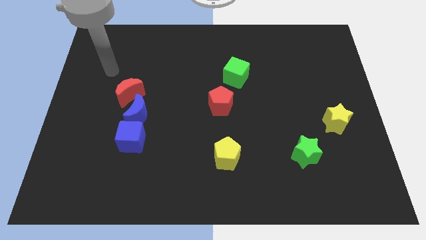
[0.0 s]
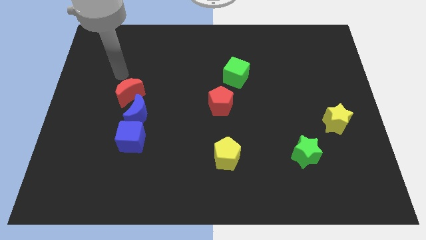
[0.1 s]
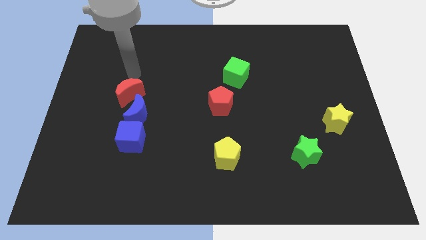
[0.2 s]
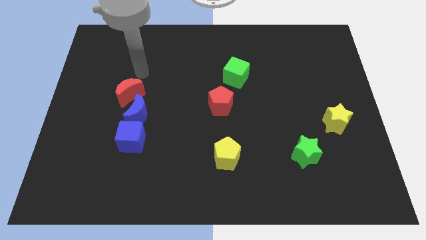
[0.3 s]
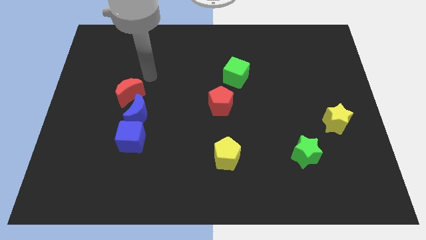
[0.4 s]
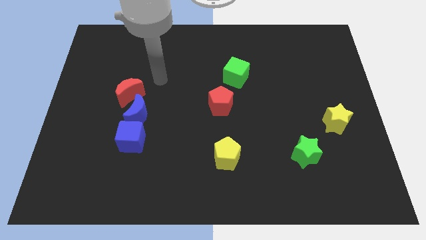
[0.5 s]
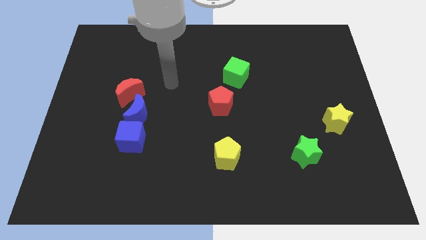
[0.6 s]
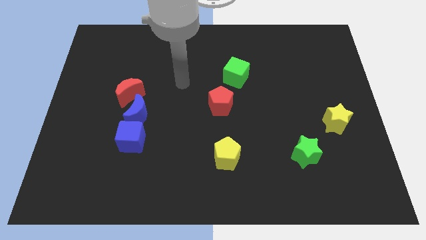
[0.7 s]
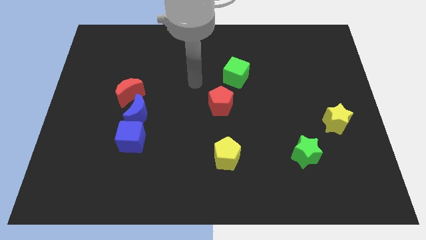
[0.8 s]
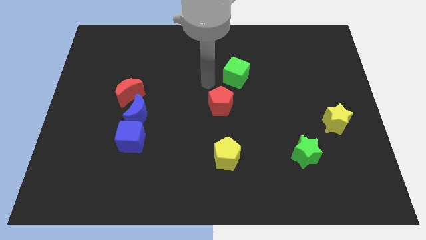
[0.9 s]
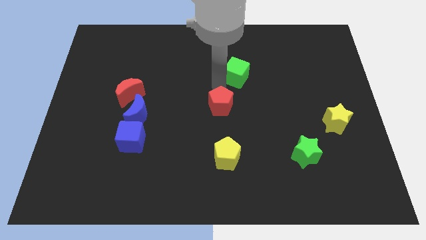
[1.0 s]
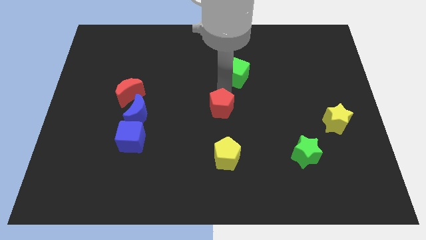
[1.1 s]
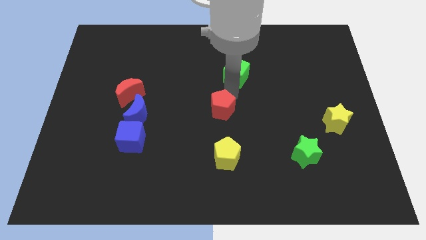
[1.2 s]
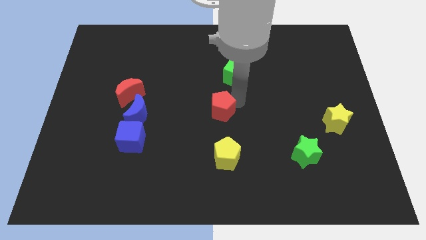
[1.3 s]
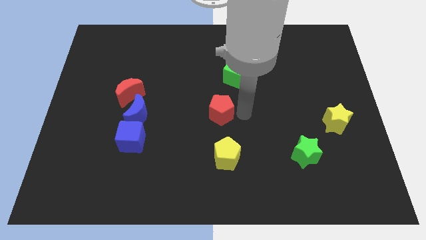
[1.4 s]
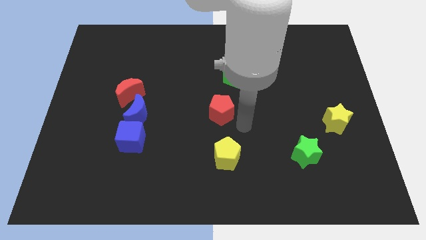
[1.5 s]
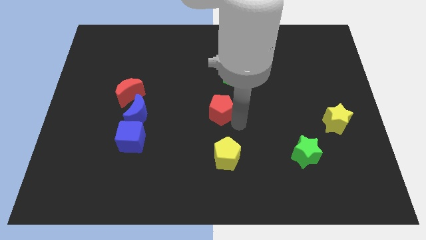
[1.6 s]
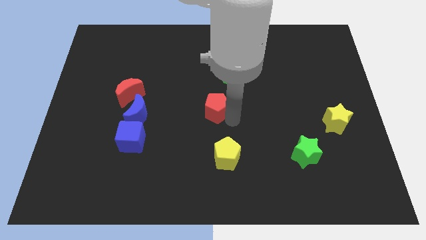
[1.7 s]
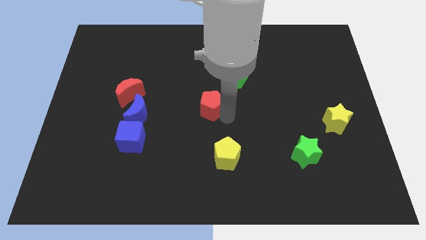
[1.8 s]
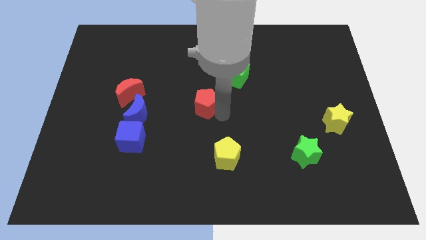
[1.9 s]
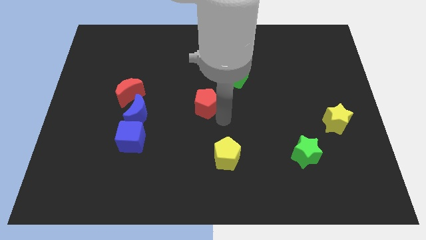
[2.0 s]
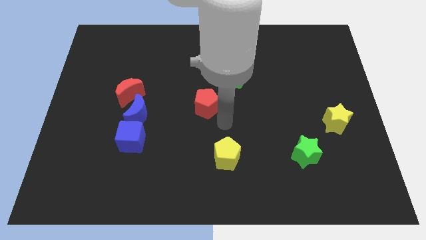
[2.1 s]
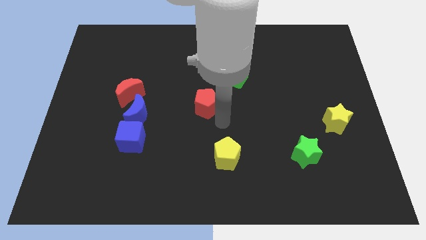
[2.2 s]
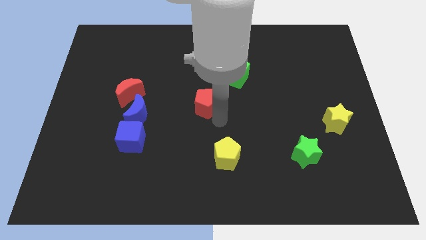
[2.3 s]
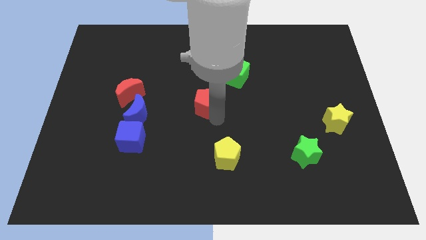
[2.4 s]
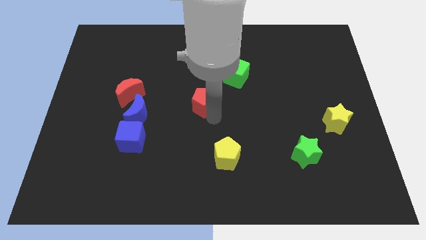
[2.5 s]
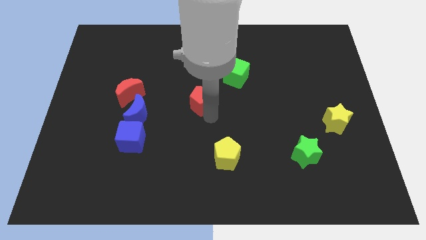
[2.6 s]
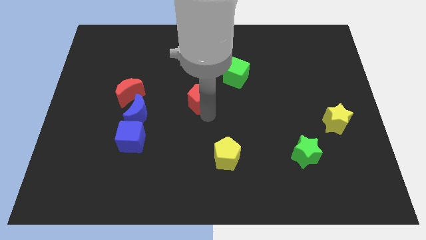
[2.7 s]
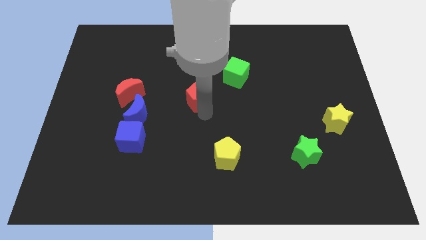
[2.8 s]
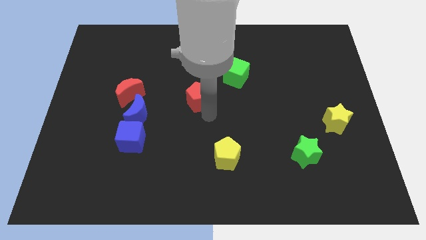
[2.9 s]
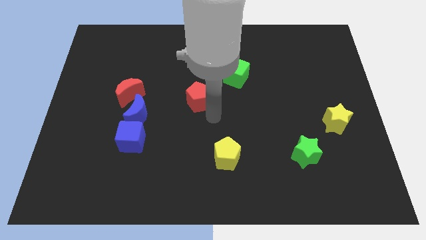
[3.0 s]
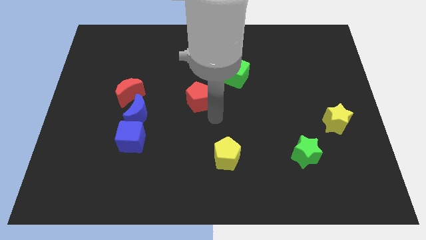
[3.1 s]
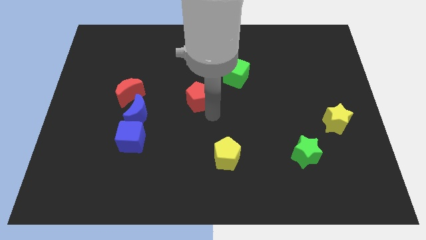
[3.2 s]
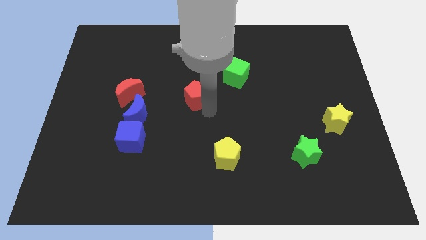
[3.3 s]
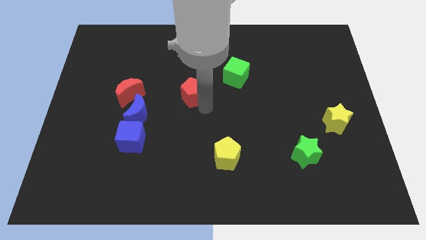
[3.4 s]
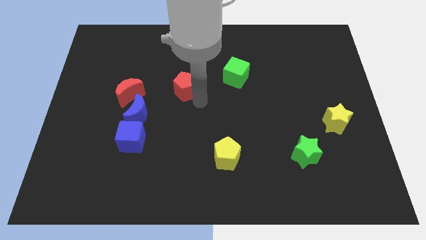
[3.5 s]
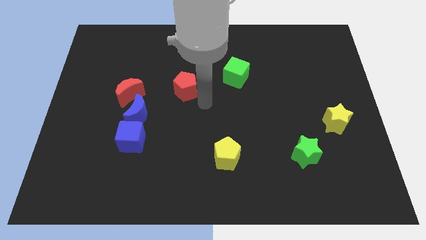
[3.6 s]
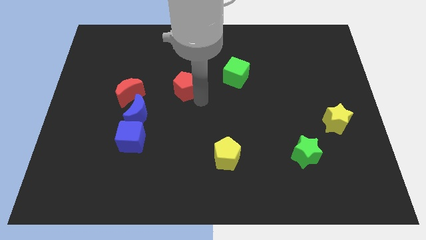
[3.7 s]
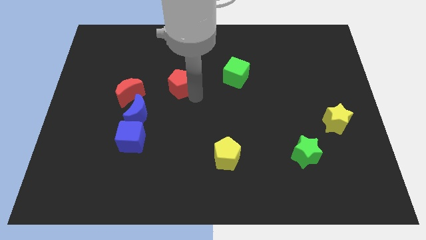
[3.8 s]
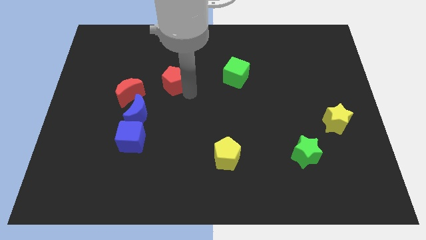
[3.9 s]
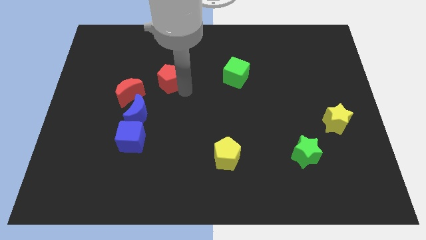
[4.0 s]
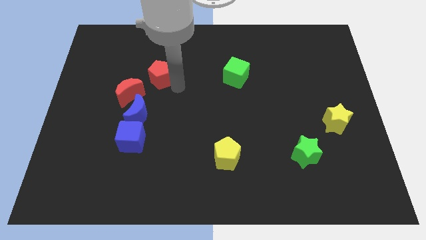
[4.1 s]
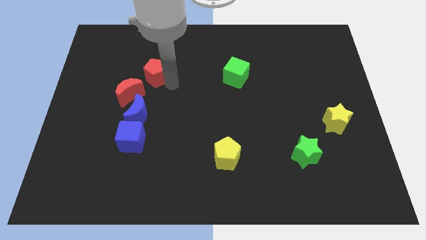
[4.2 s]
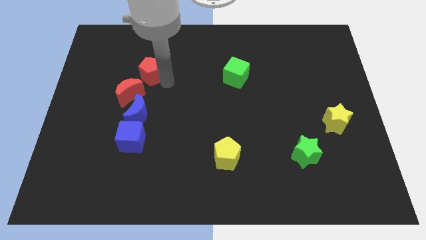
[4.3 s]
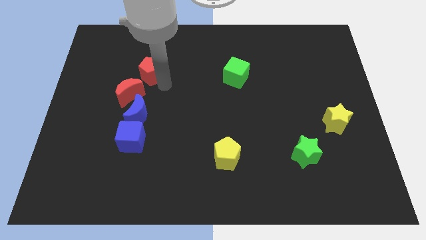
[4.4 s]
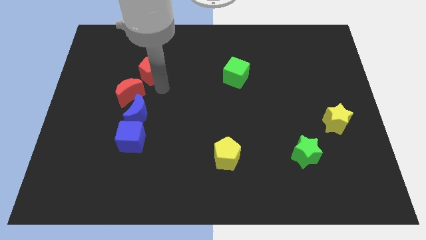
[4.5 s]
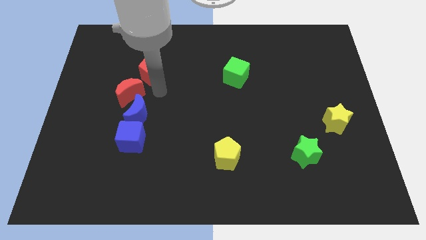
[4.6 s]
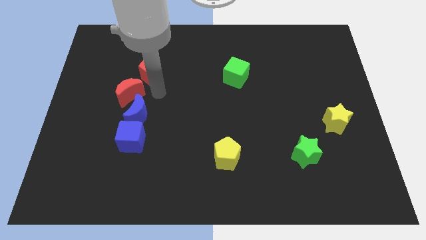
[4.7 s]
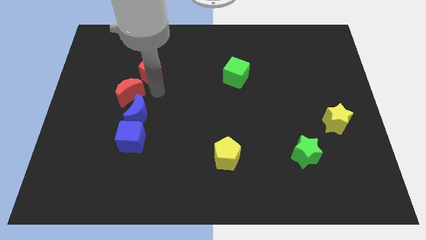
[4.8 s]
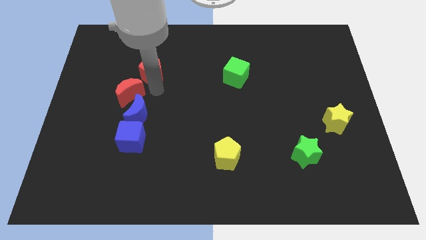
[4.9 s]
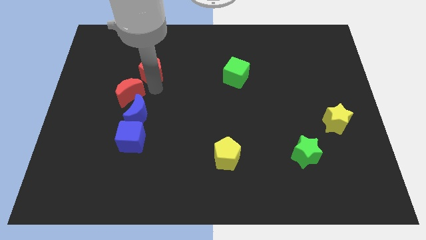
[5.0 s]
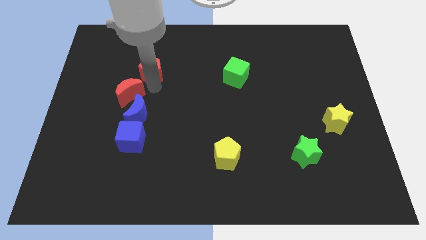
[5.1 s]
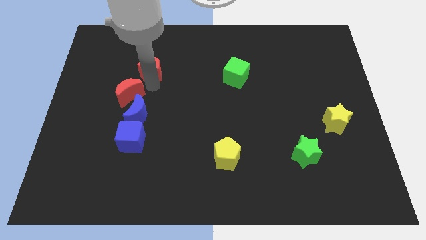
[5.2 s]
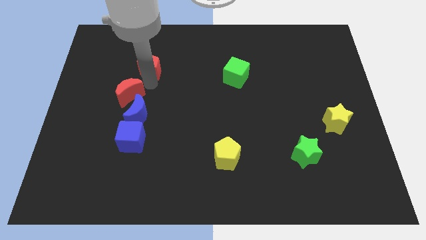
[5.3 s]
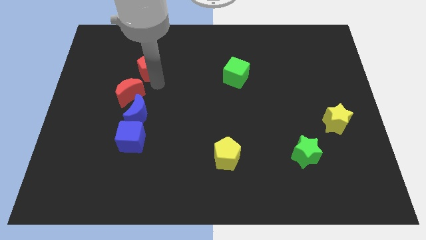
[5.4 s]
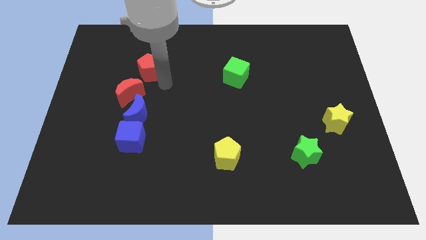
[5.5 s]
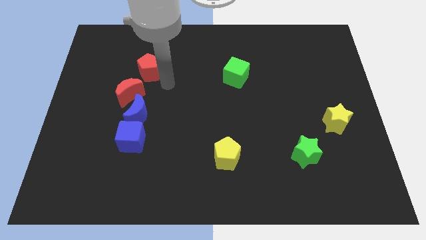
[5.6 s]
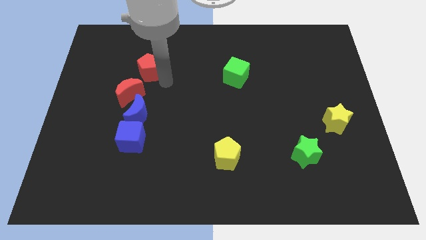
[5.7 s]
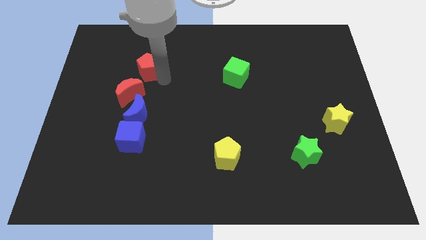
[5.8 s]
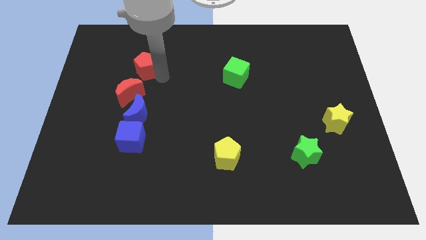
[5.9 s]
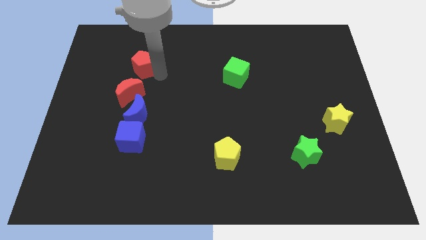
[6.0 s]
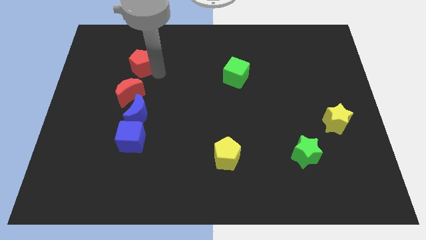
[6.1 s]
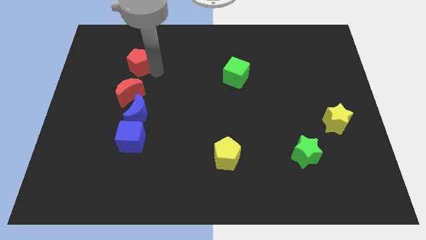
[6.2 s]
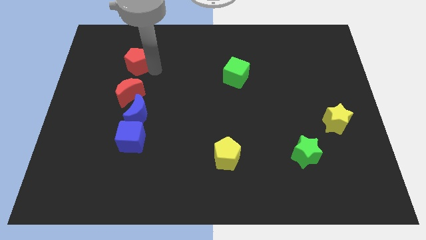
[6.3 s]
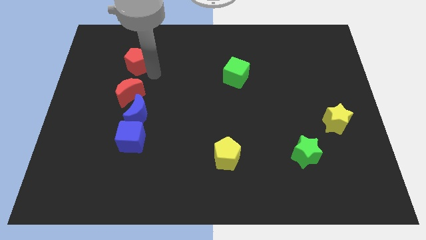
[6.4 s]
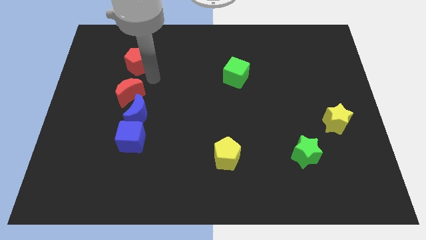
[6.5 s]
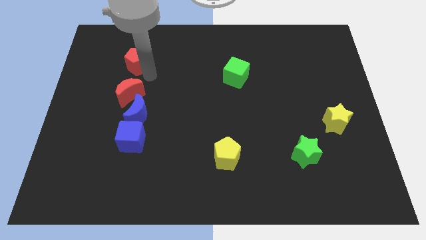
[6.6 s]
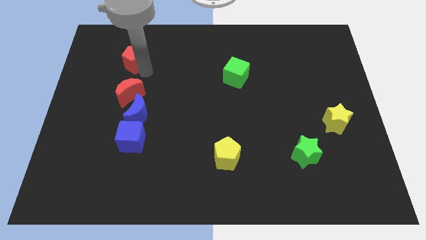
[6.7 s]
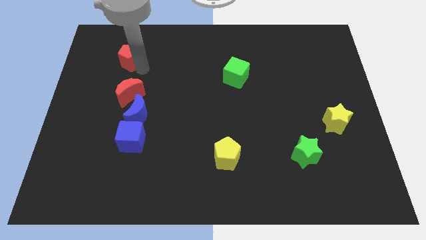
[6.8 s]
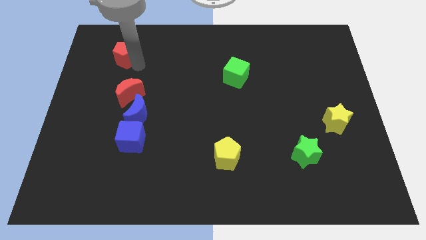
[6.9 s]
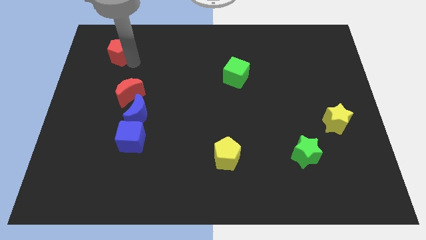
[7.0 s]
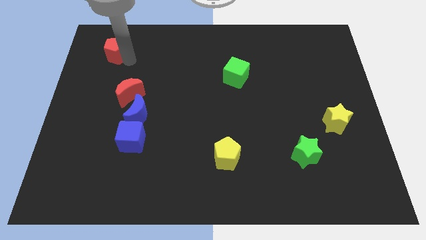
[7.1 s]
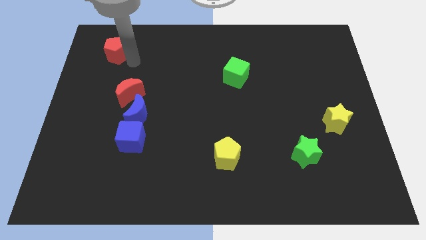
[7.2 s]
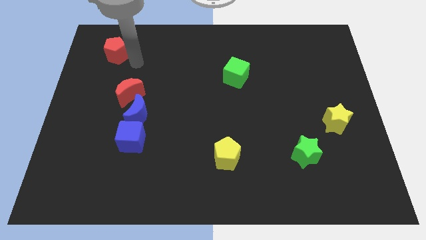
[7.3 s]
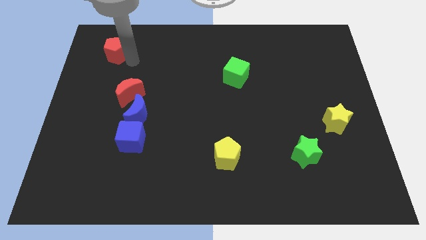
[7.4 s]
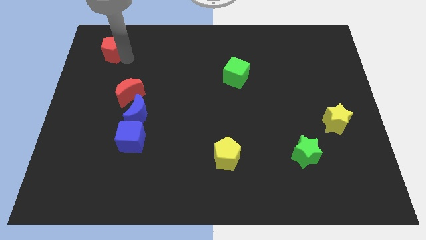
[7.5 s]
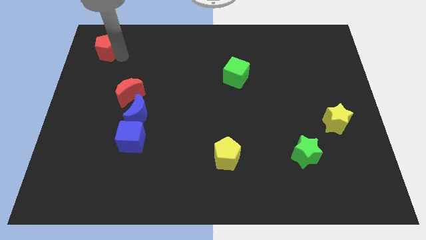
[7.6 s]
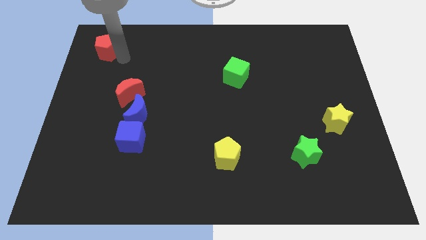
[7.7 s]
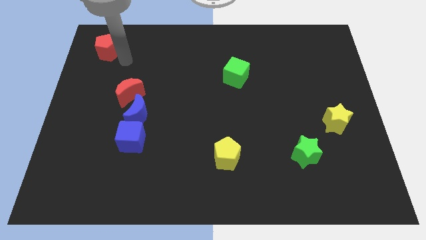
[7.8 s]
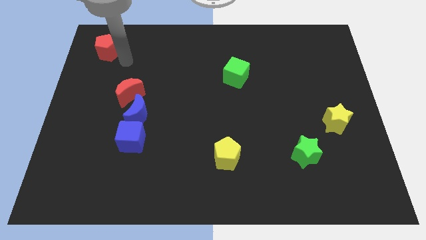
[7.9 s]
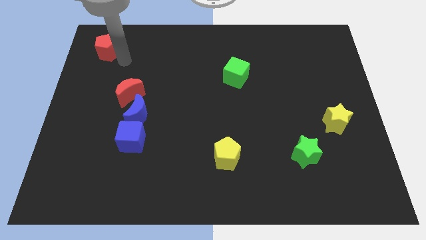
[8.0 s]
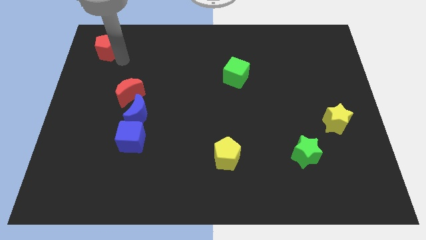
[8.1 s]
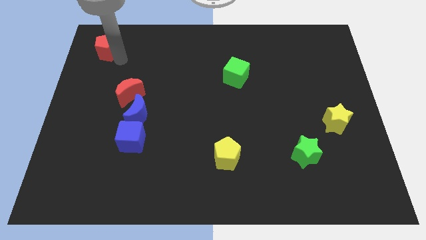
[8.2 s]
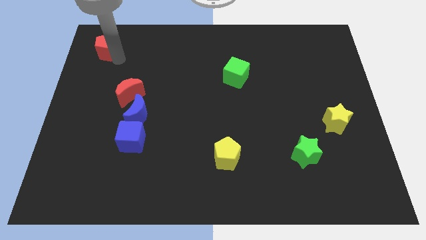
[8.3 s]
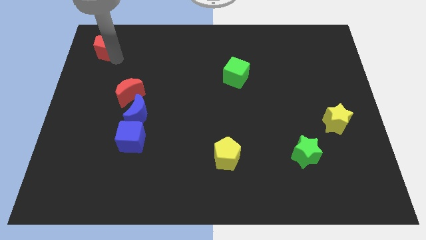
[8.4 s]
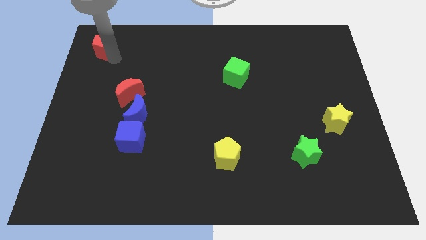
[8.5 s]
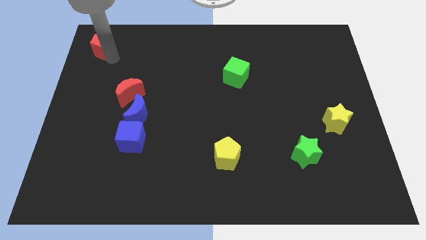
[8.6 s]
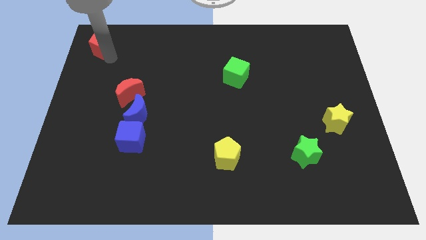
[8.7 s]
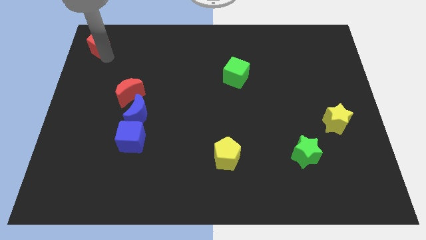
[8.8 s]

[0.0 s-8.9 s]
put the red pentagon to the top left
